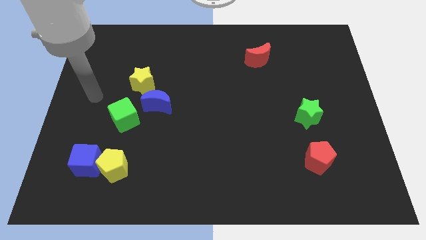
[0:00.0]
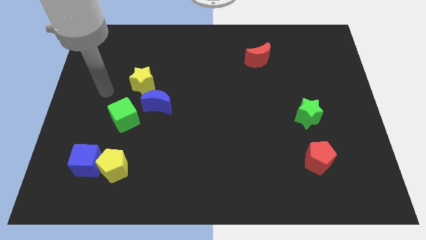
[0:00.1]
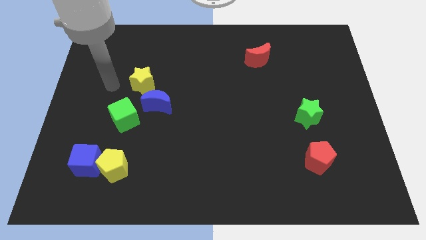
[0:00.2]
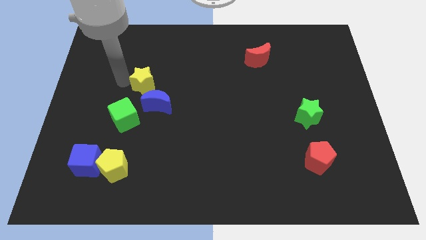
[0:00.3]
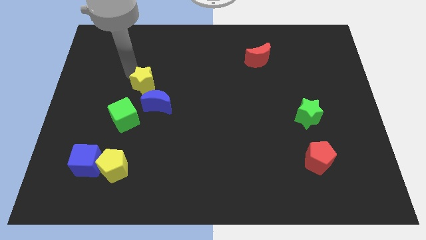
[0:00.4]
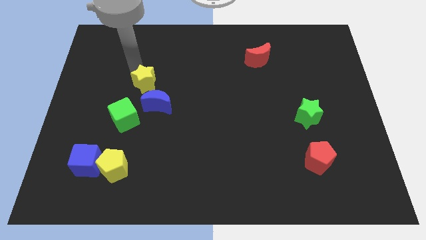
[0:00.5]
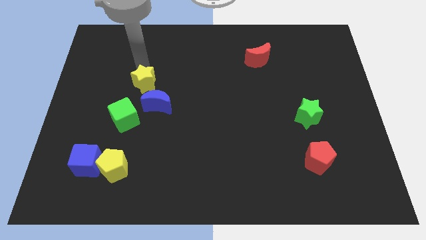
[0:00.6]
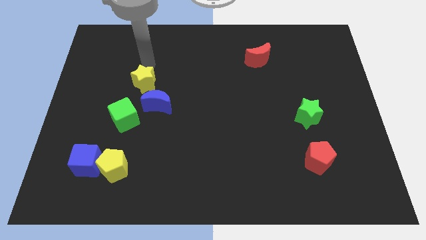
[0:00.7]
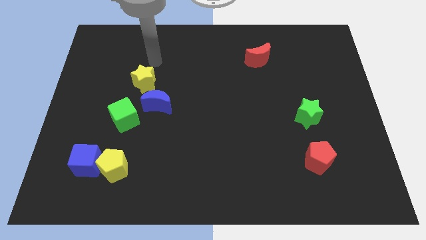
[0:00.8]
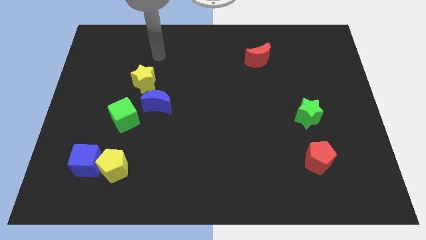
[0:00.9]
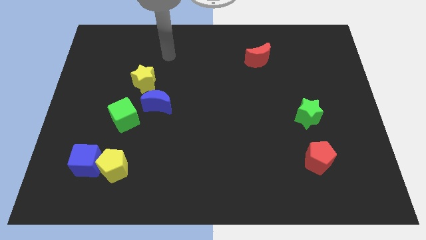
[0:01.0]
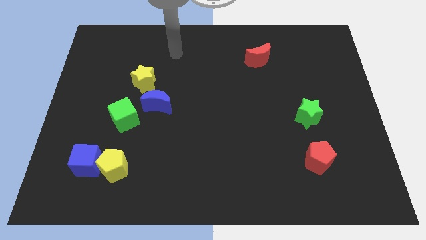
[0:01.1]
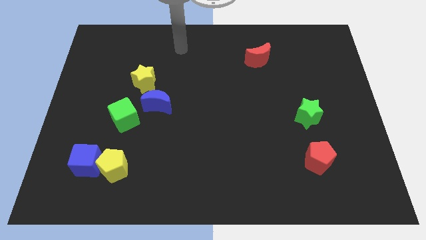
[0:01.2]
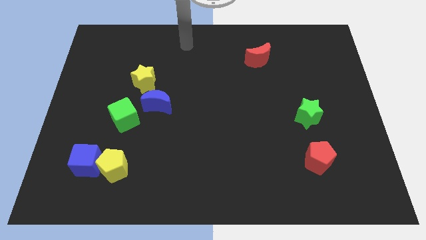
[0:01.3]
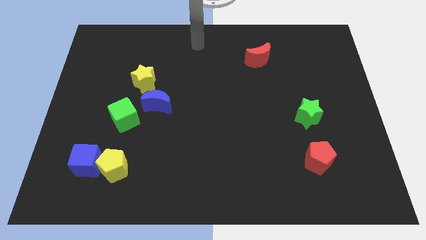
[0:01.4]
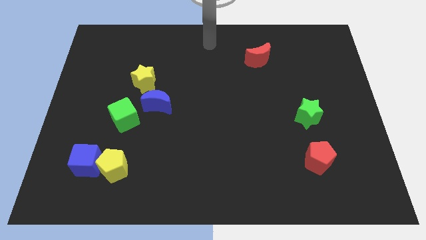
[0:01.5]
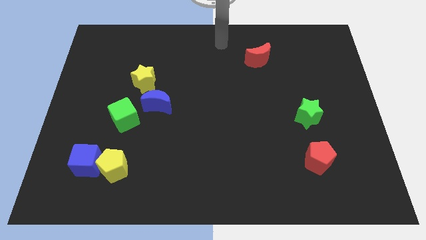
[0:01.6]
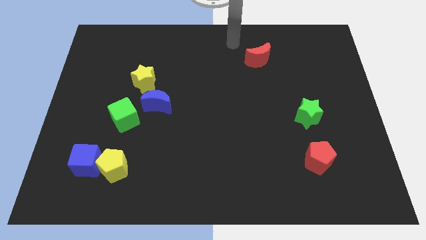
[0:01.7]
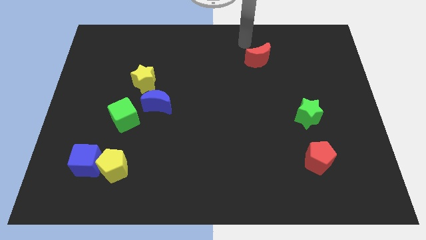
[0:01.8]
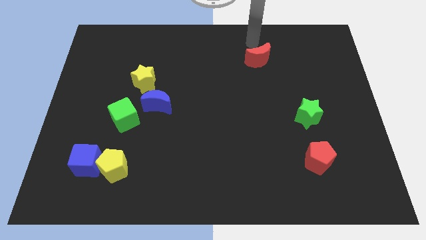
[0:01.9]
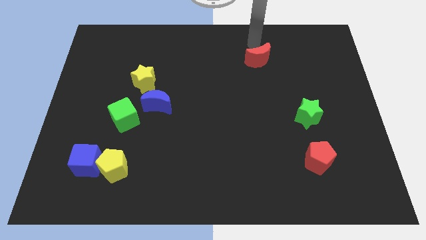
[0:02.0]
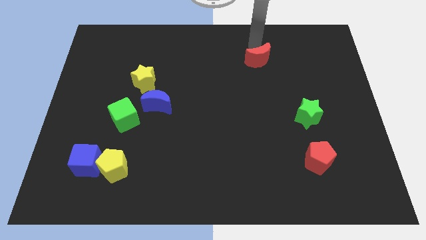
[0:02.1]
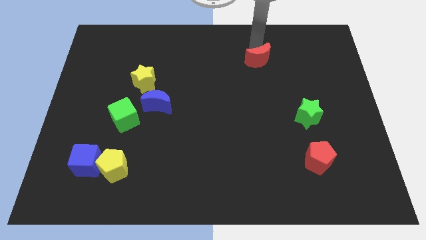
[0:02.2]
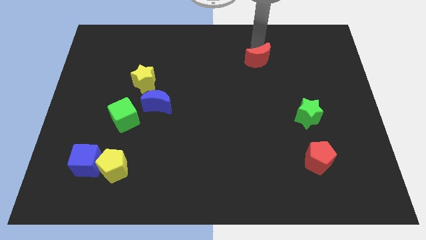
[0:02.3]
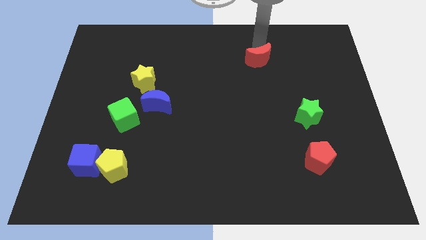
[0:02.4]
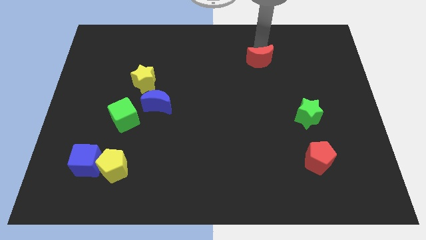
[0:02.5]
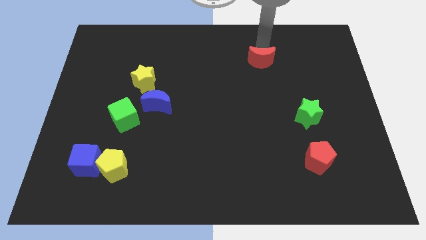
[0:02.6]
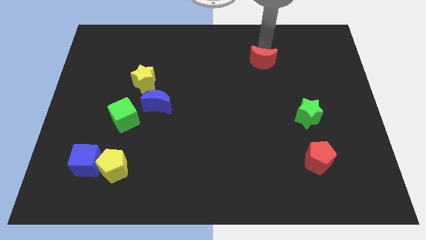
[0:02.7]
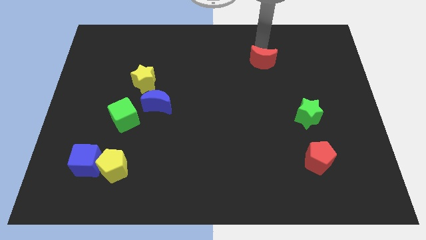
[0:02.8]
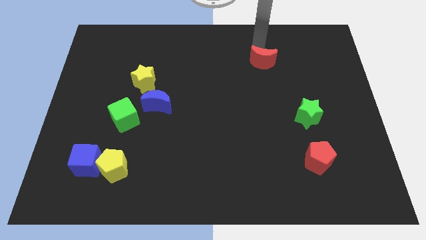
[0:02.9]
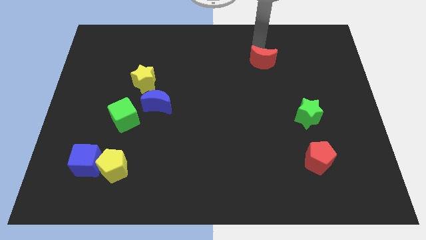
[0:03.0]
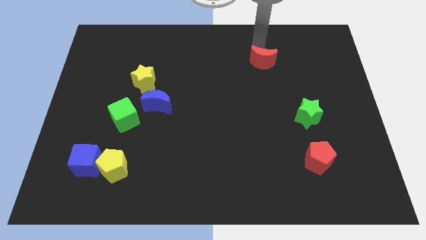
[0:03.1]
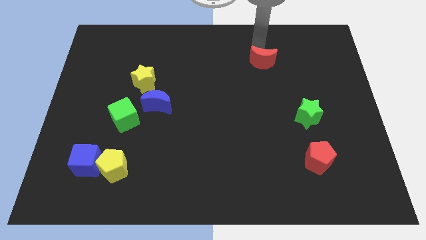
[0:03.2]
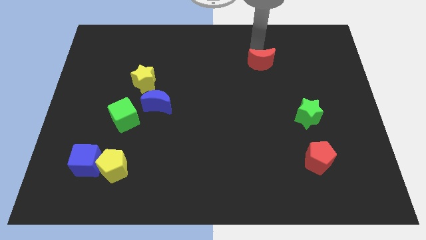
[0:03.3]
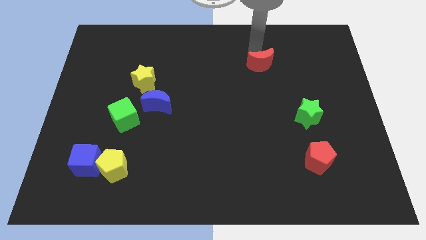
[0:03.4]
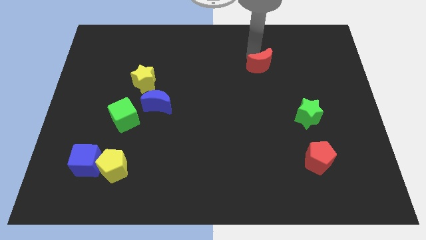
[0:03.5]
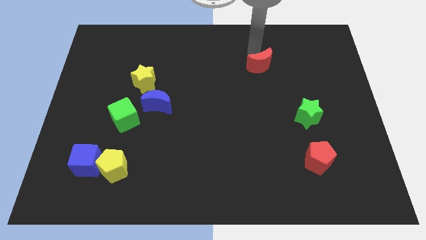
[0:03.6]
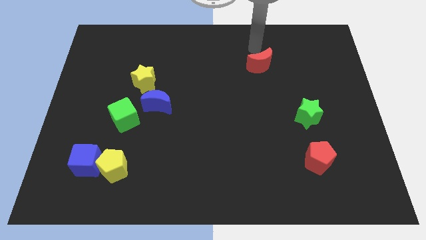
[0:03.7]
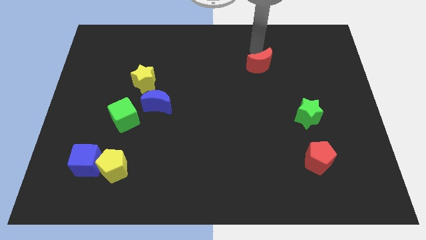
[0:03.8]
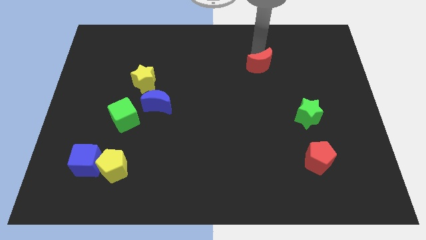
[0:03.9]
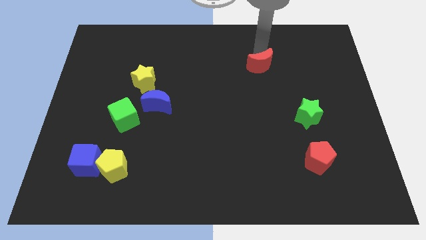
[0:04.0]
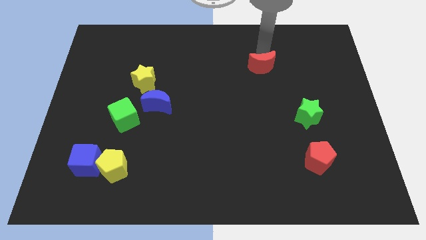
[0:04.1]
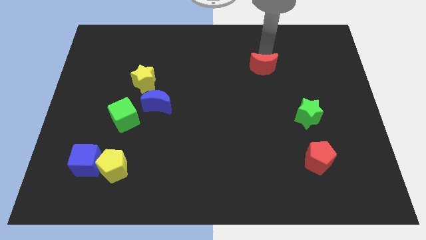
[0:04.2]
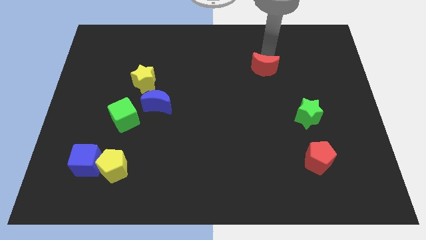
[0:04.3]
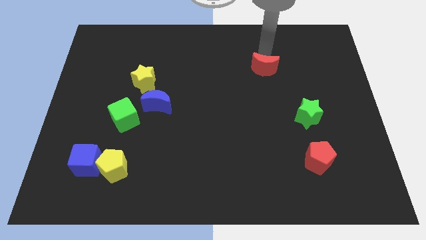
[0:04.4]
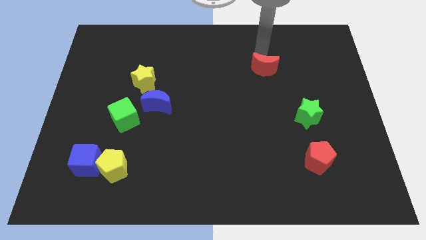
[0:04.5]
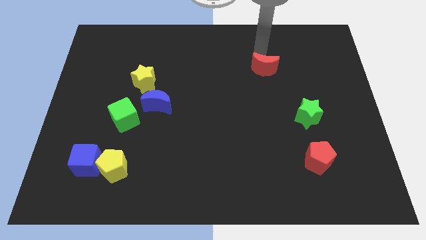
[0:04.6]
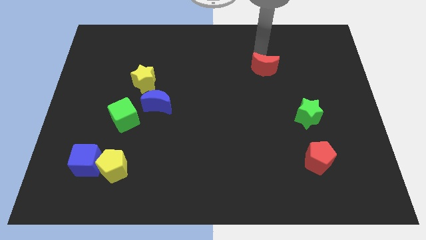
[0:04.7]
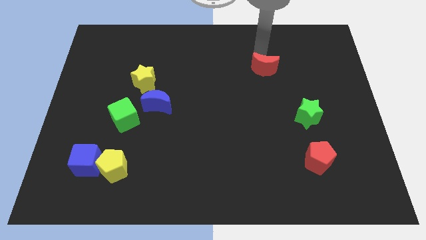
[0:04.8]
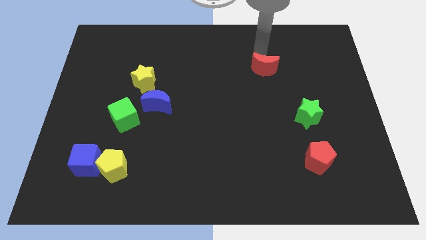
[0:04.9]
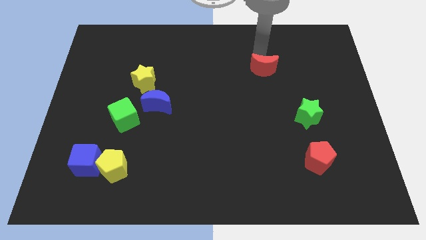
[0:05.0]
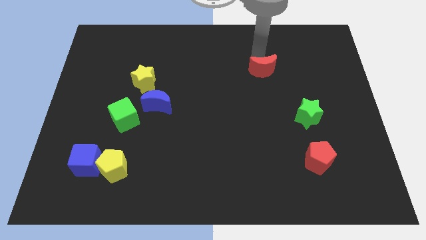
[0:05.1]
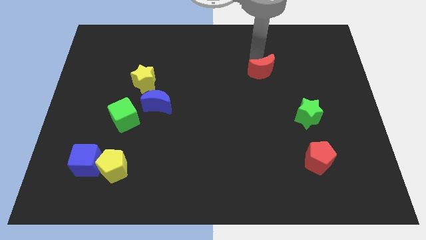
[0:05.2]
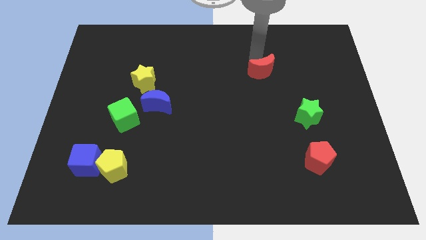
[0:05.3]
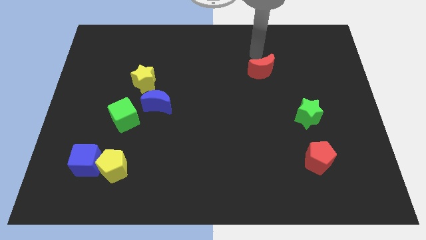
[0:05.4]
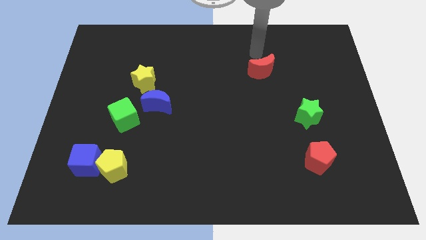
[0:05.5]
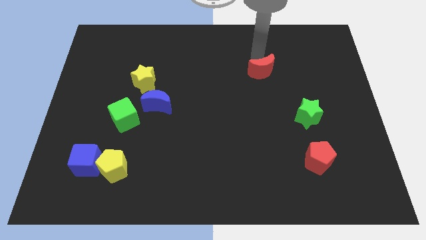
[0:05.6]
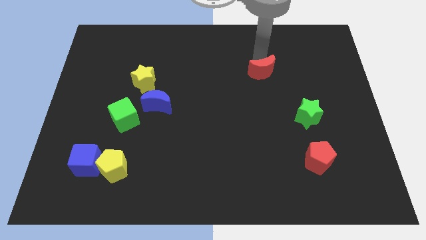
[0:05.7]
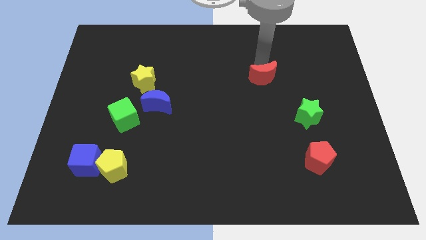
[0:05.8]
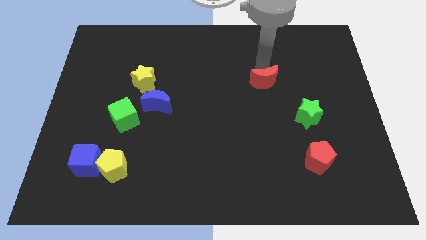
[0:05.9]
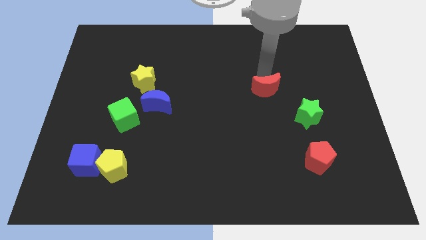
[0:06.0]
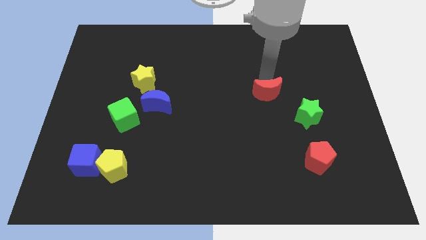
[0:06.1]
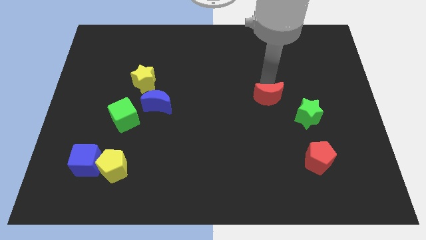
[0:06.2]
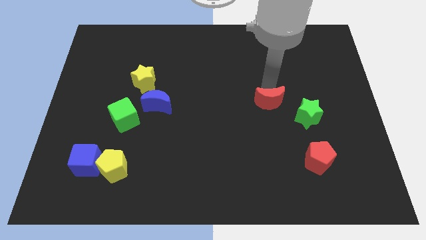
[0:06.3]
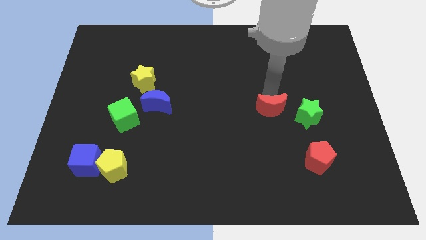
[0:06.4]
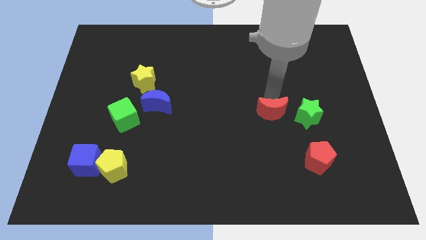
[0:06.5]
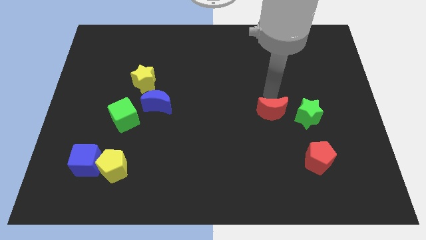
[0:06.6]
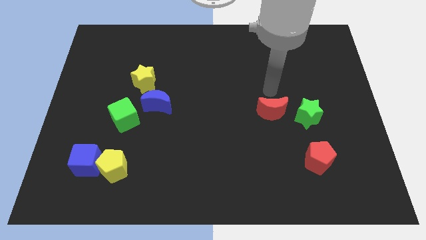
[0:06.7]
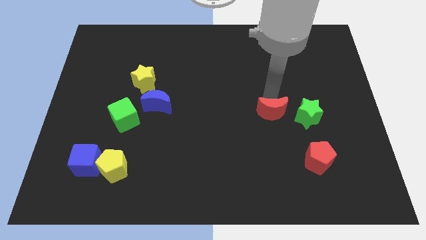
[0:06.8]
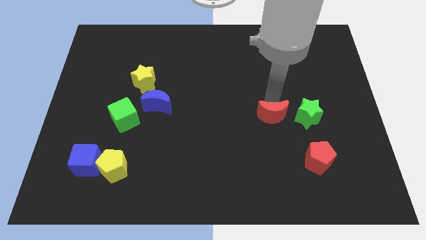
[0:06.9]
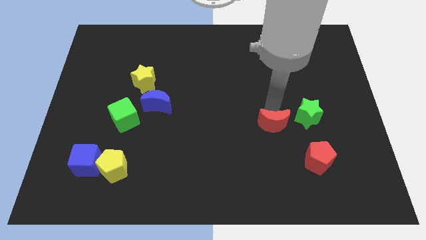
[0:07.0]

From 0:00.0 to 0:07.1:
move the red moon down

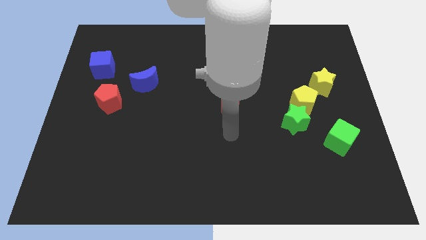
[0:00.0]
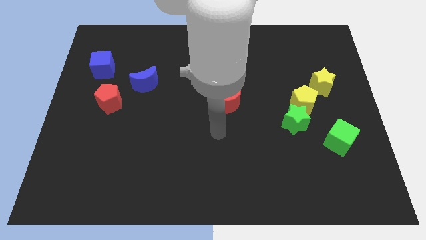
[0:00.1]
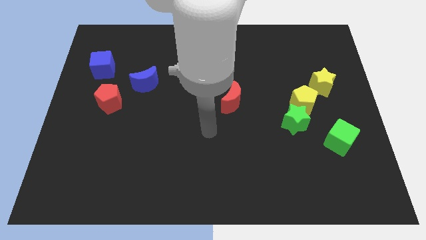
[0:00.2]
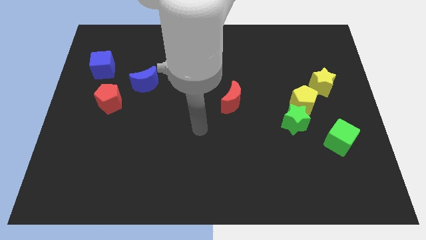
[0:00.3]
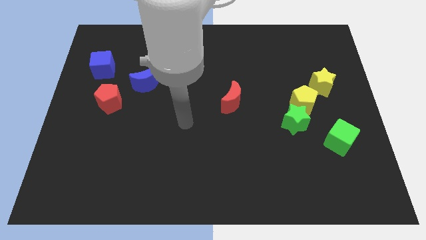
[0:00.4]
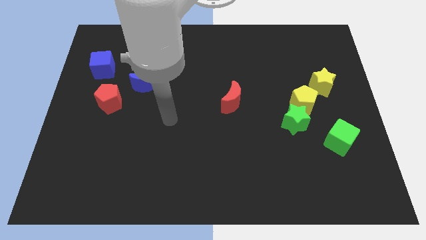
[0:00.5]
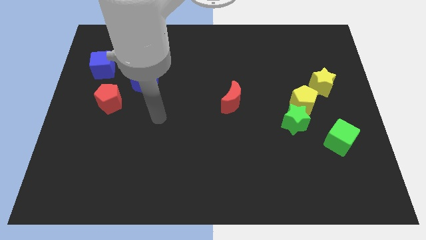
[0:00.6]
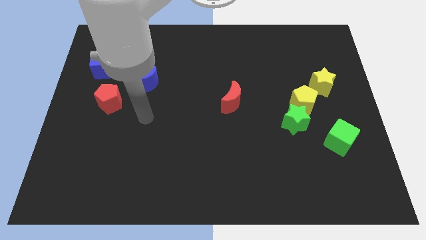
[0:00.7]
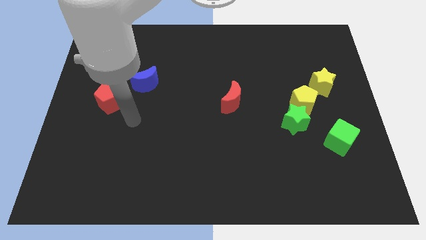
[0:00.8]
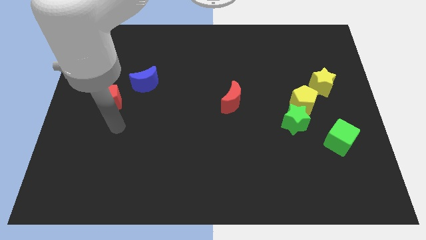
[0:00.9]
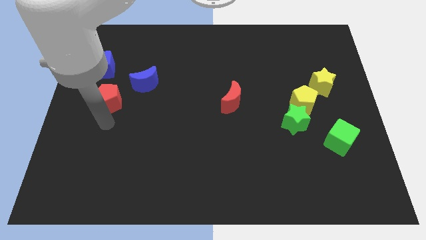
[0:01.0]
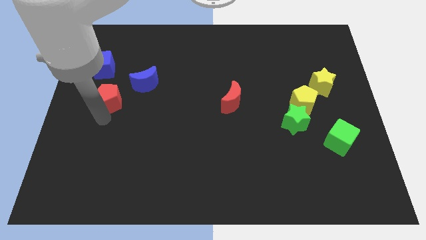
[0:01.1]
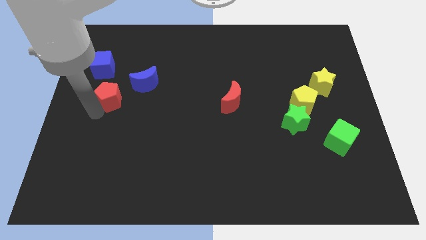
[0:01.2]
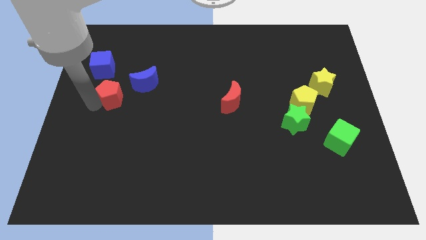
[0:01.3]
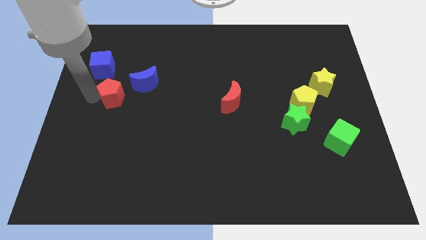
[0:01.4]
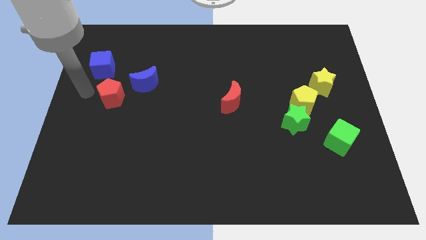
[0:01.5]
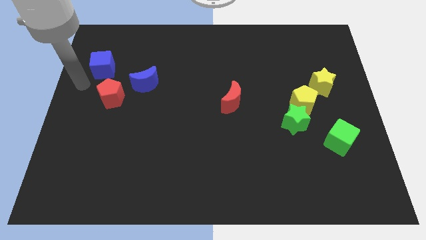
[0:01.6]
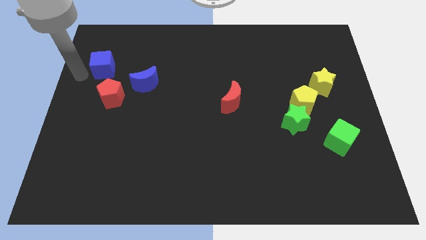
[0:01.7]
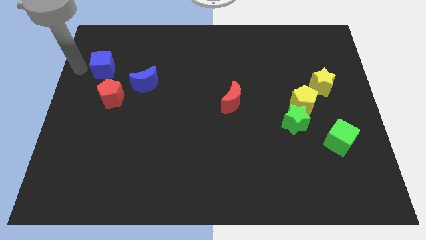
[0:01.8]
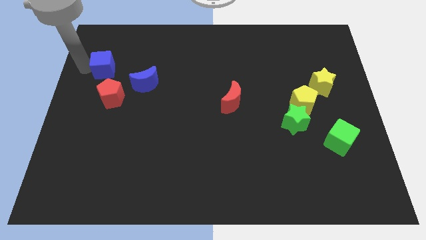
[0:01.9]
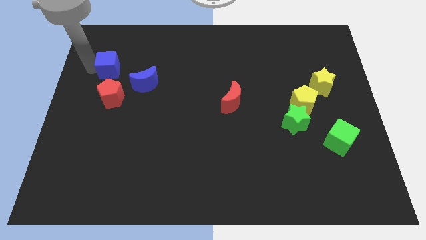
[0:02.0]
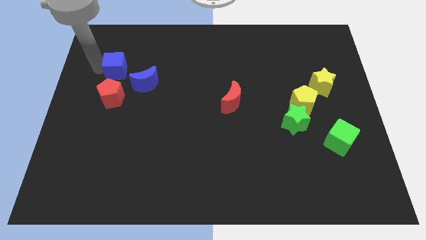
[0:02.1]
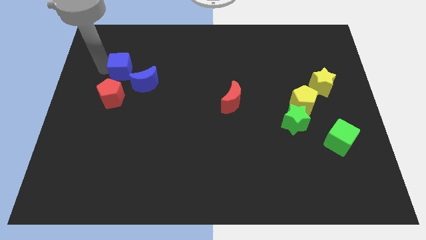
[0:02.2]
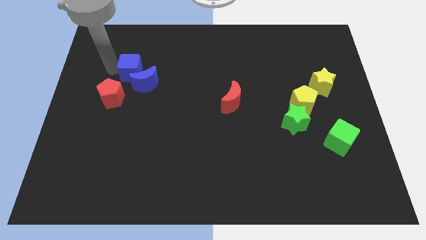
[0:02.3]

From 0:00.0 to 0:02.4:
move the blue cube slightly right
